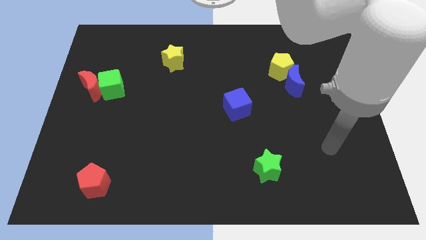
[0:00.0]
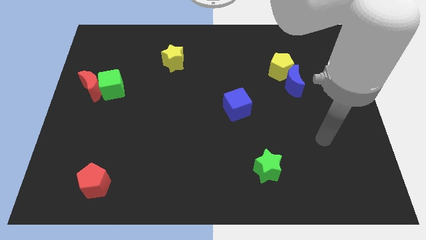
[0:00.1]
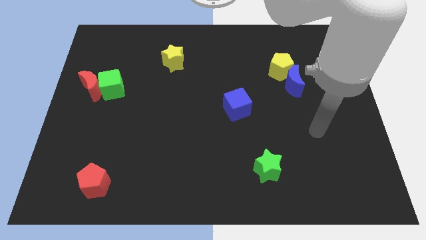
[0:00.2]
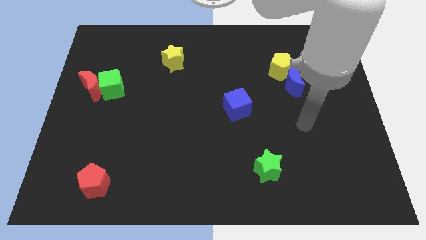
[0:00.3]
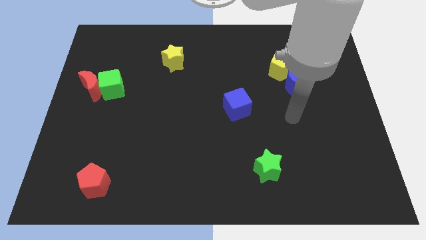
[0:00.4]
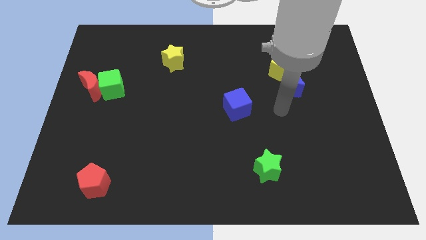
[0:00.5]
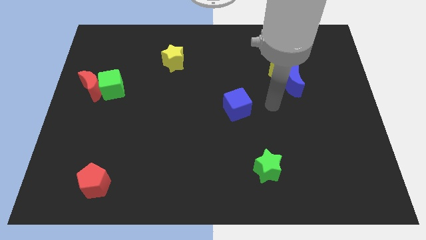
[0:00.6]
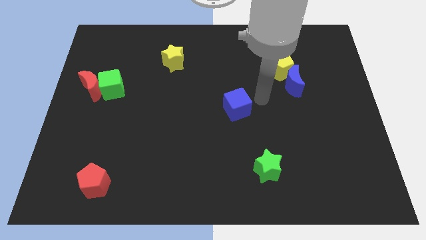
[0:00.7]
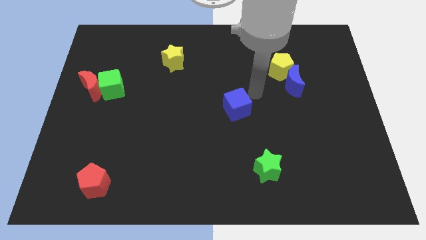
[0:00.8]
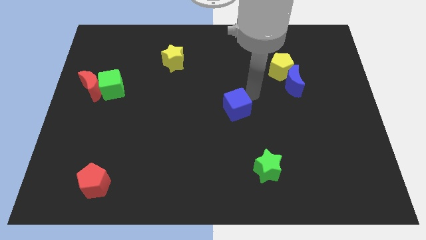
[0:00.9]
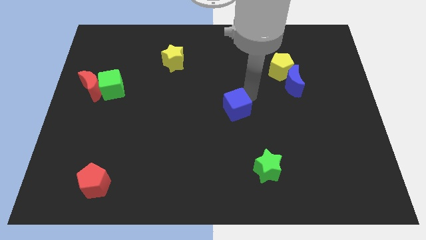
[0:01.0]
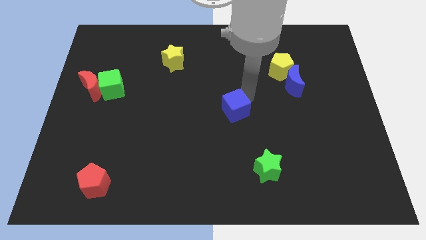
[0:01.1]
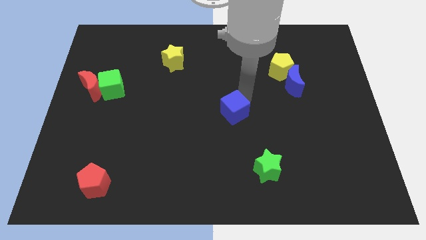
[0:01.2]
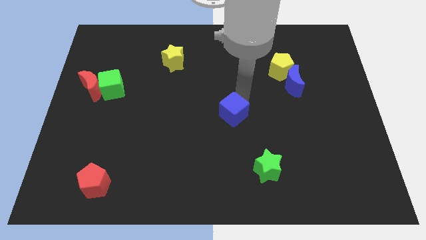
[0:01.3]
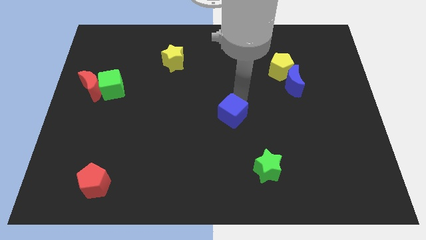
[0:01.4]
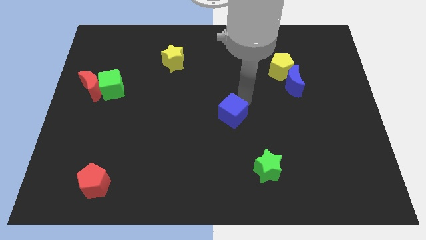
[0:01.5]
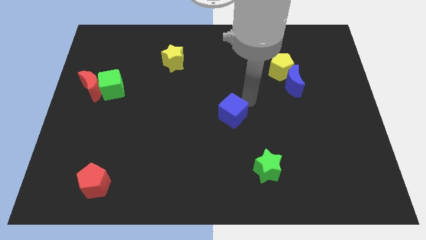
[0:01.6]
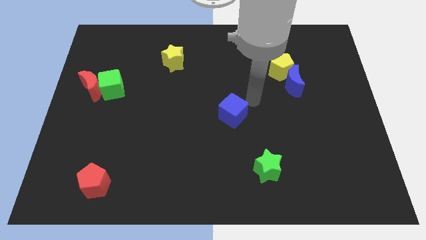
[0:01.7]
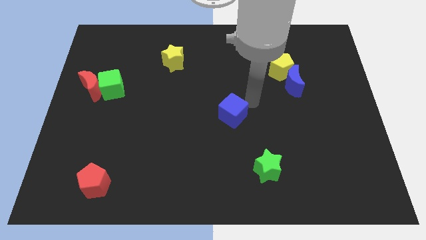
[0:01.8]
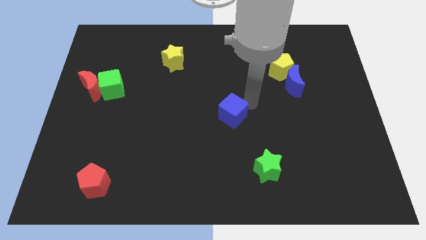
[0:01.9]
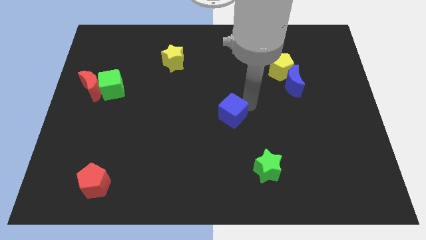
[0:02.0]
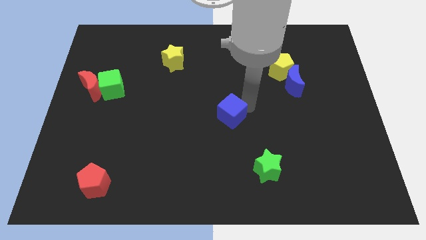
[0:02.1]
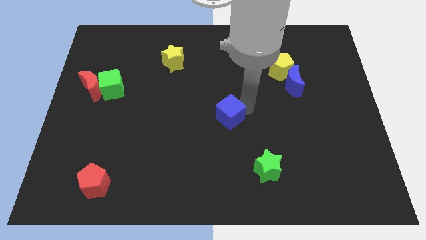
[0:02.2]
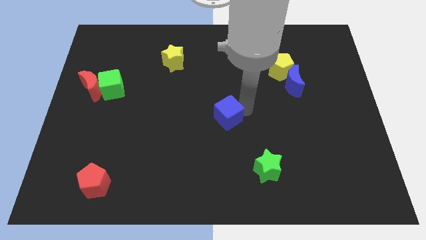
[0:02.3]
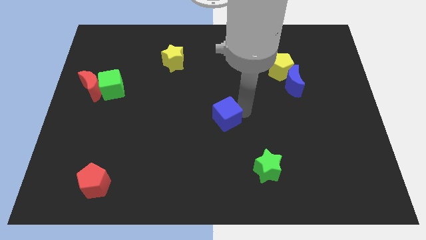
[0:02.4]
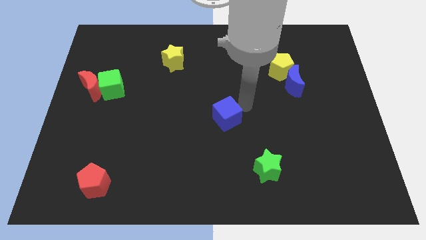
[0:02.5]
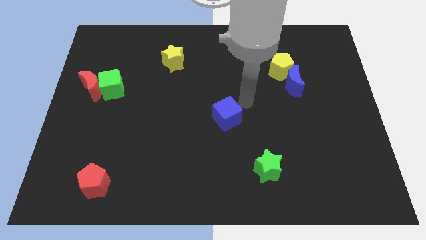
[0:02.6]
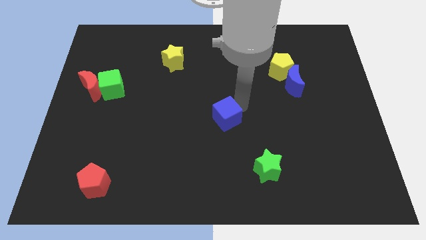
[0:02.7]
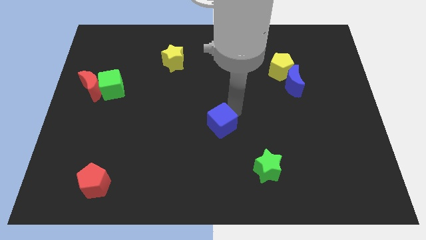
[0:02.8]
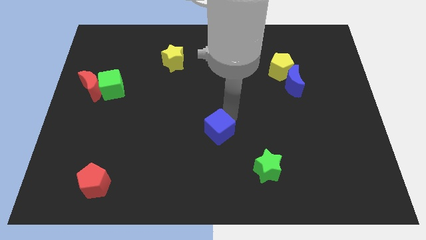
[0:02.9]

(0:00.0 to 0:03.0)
move the blue cube diagonally down and to the left a little bit

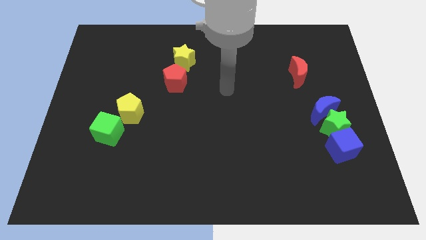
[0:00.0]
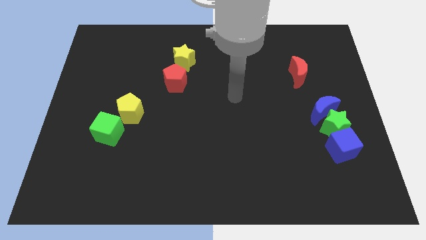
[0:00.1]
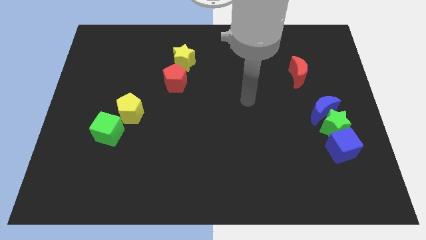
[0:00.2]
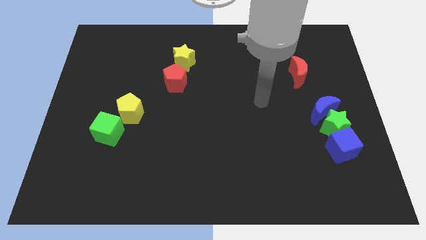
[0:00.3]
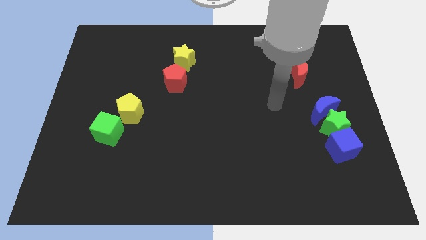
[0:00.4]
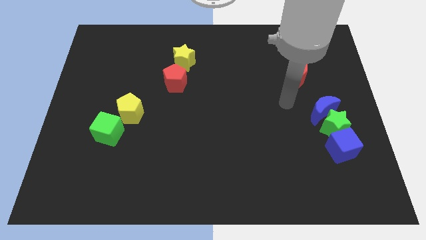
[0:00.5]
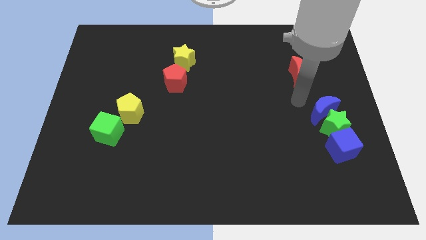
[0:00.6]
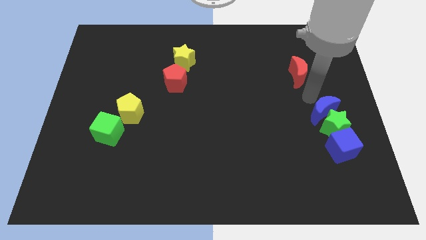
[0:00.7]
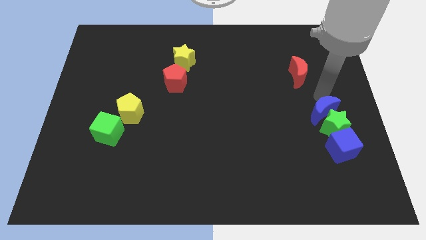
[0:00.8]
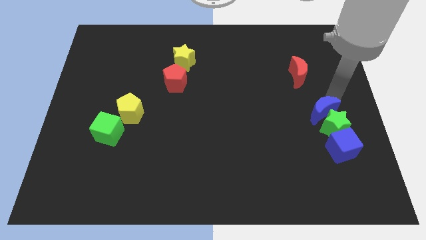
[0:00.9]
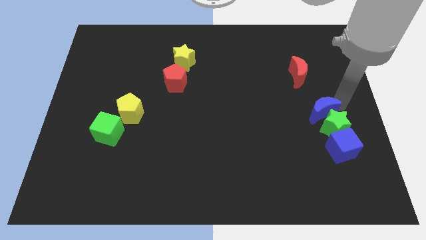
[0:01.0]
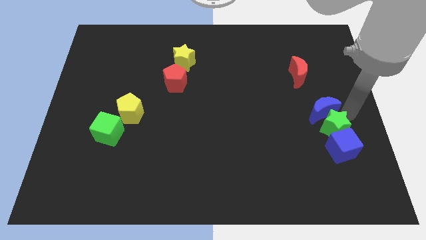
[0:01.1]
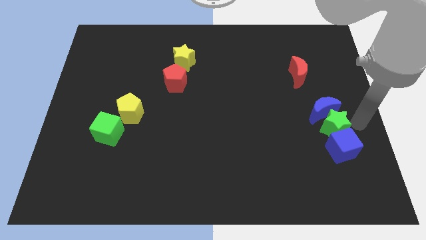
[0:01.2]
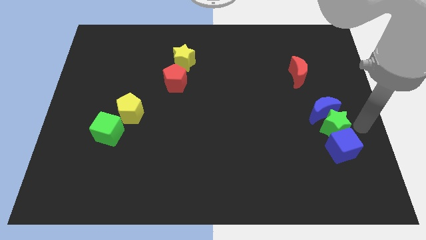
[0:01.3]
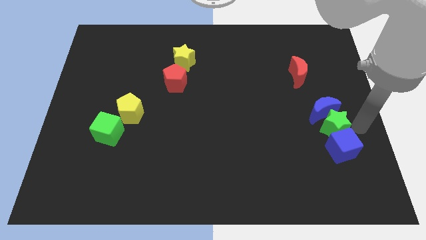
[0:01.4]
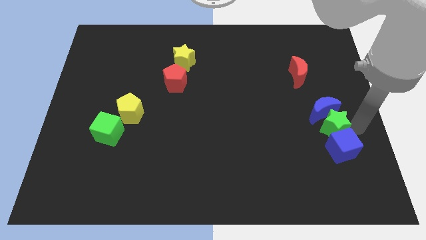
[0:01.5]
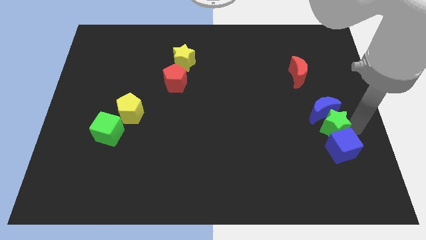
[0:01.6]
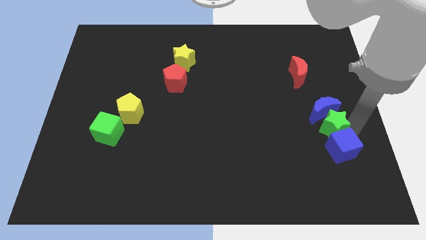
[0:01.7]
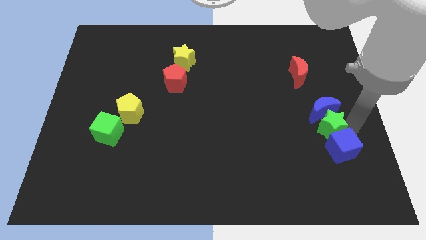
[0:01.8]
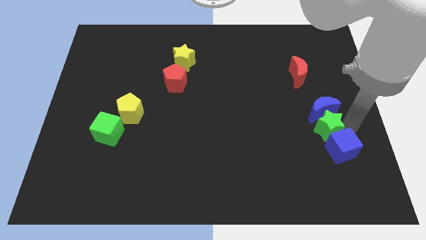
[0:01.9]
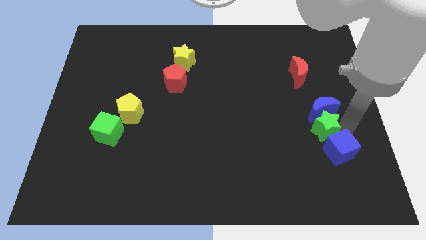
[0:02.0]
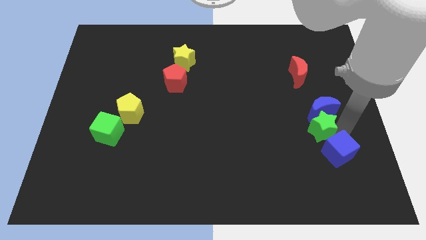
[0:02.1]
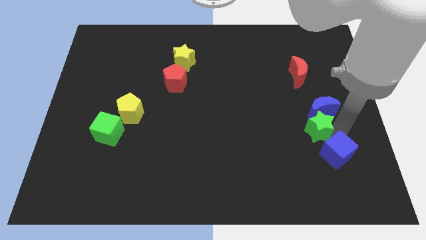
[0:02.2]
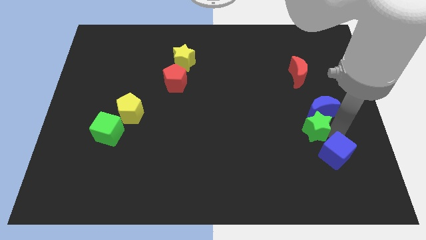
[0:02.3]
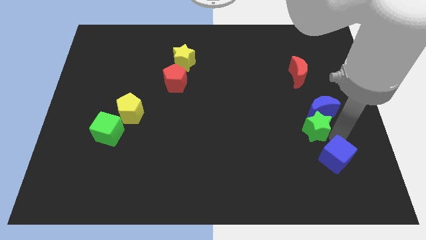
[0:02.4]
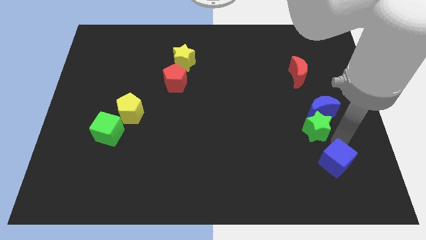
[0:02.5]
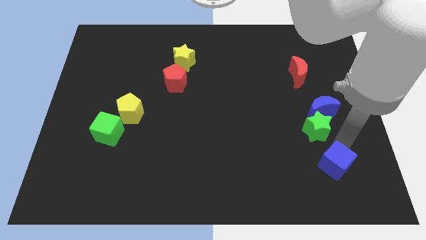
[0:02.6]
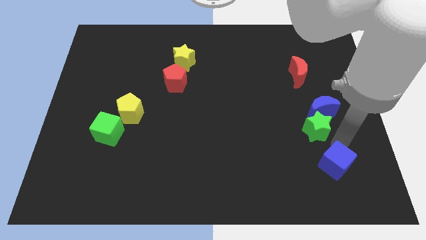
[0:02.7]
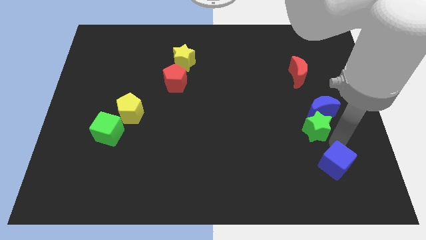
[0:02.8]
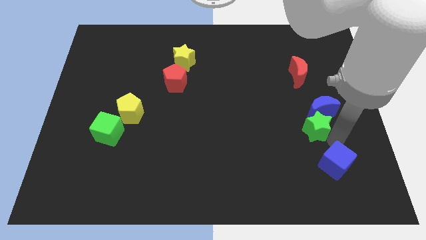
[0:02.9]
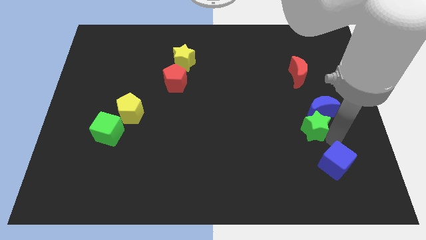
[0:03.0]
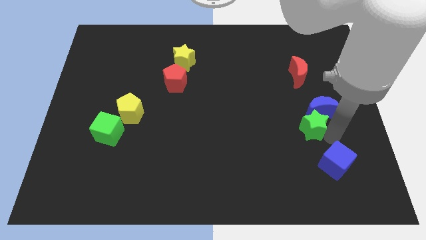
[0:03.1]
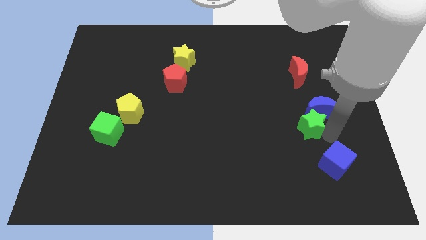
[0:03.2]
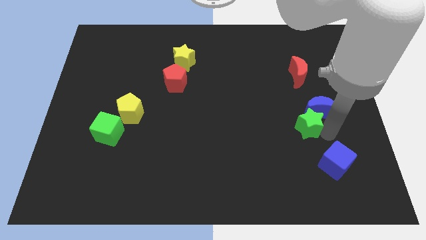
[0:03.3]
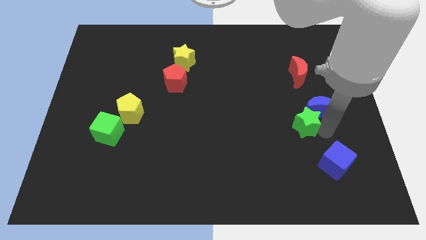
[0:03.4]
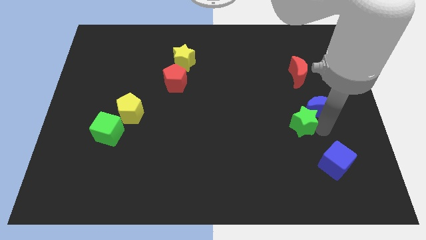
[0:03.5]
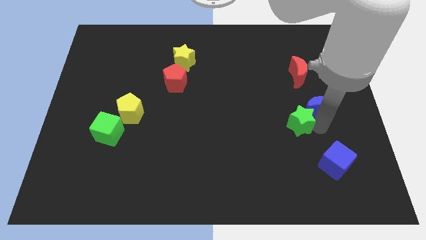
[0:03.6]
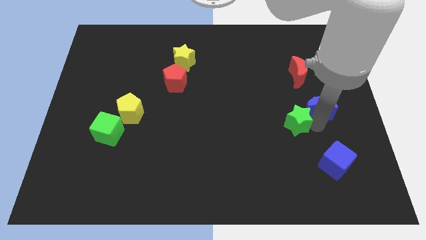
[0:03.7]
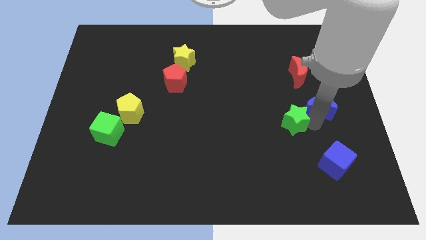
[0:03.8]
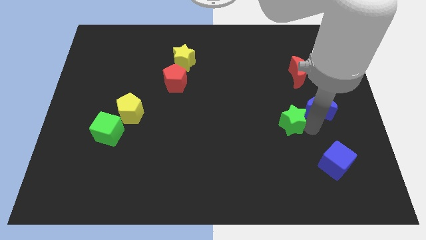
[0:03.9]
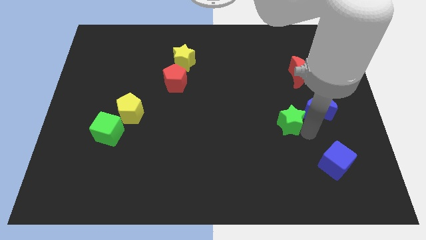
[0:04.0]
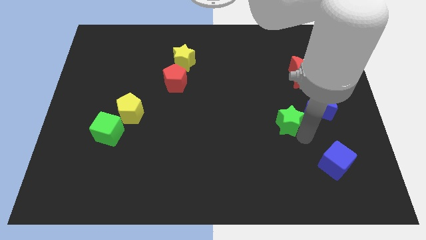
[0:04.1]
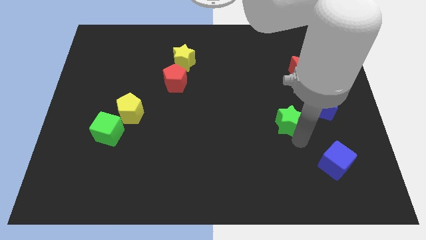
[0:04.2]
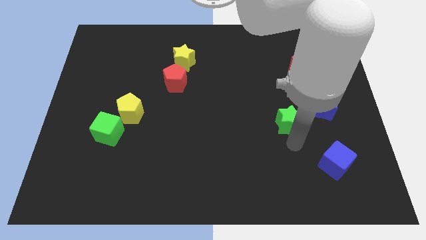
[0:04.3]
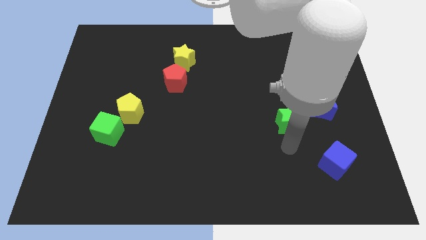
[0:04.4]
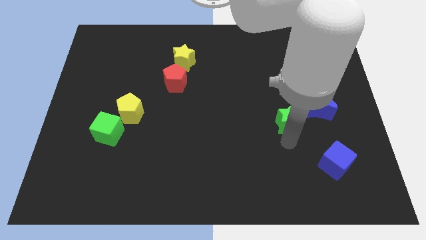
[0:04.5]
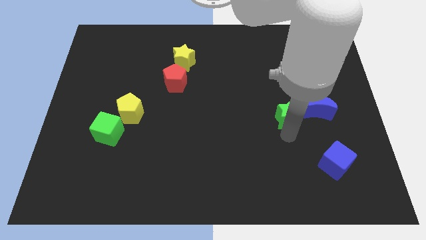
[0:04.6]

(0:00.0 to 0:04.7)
push the green star somewhat up and left

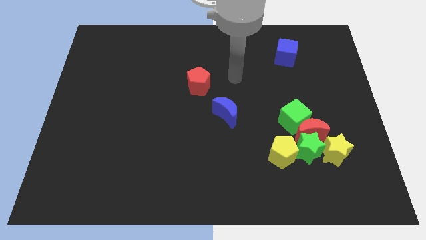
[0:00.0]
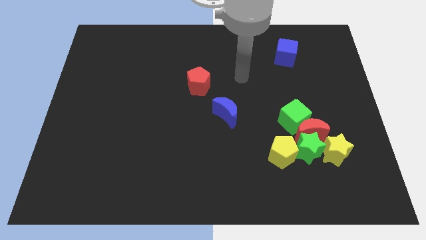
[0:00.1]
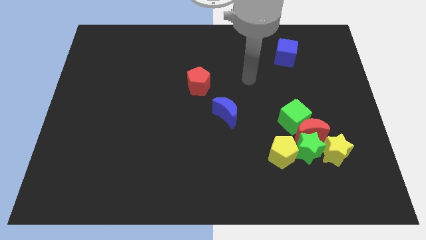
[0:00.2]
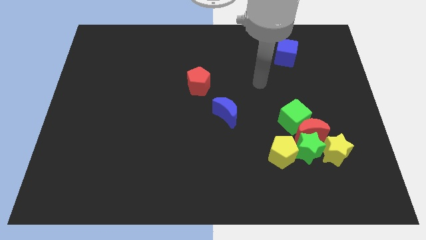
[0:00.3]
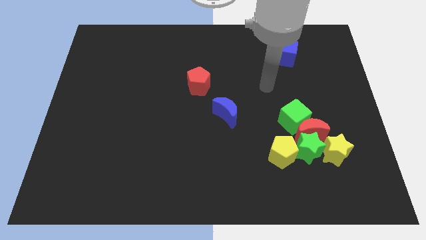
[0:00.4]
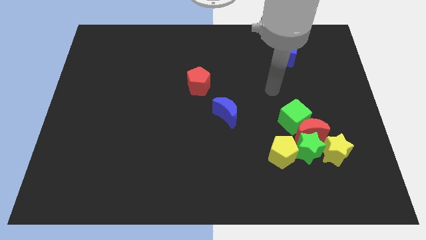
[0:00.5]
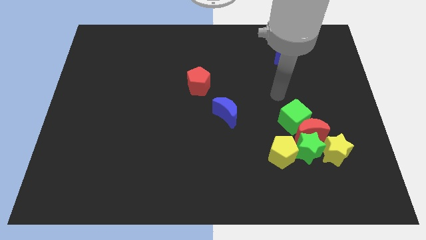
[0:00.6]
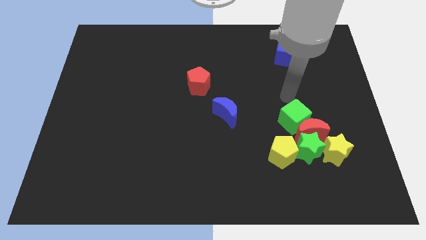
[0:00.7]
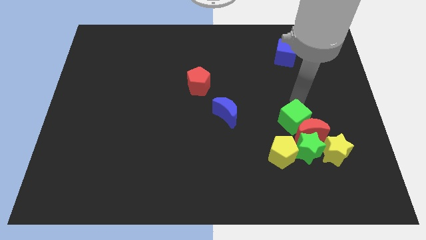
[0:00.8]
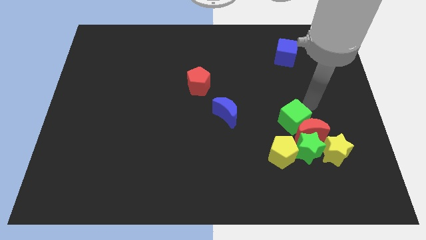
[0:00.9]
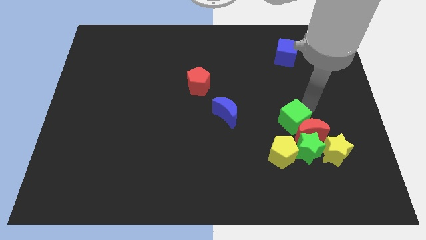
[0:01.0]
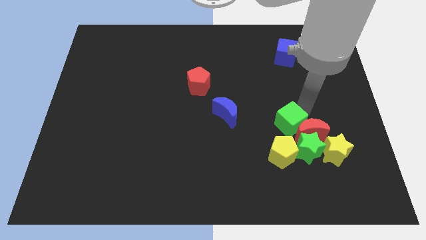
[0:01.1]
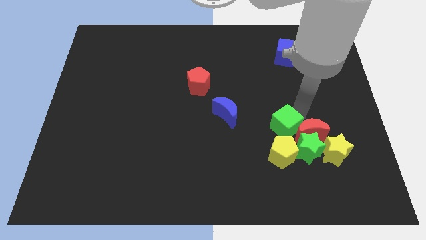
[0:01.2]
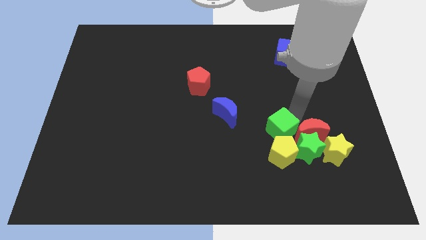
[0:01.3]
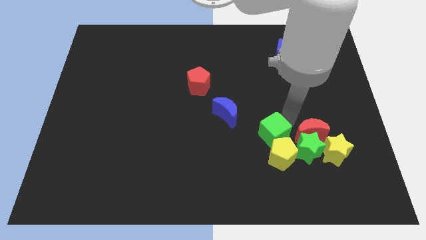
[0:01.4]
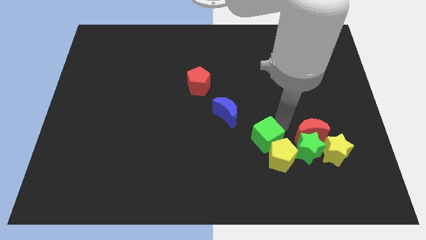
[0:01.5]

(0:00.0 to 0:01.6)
slightly move the green cube diagonally down and to the left
